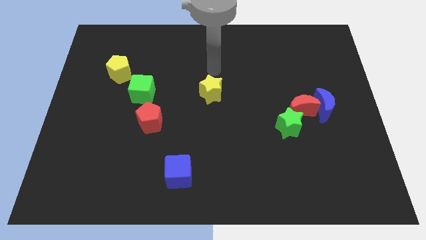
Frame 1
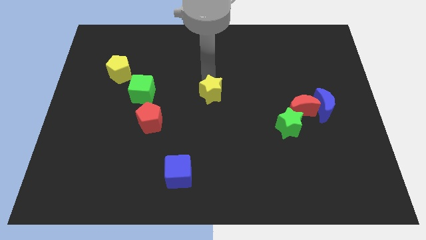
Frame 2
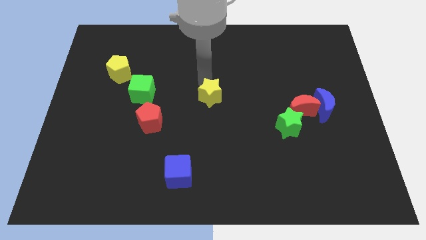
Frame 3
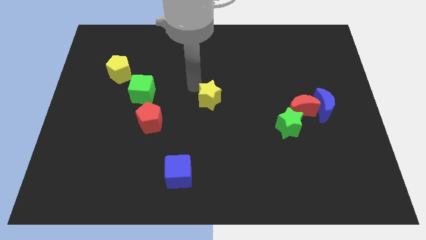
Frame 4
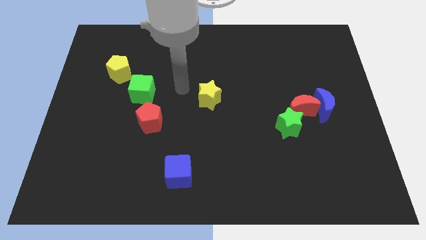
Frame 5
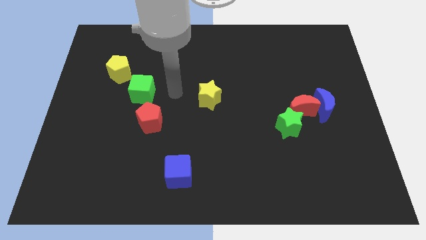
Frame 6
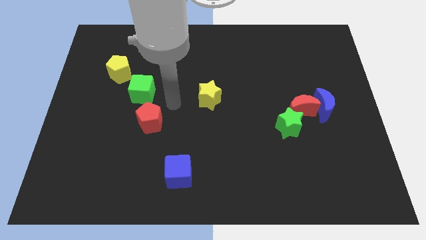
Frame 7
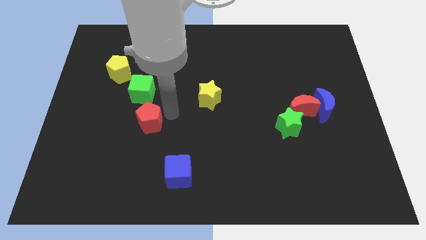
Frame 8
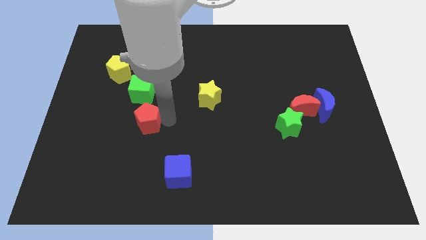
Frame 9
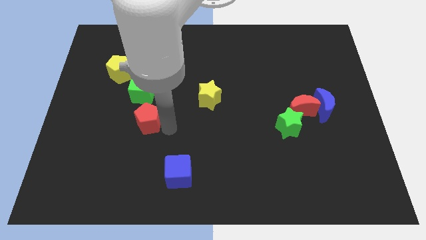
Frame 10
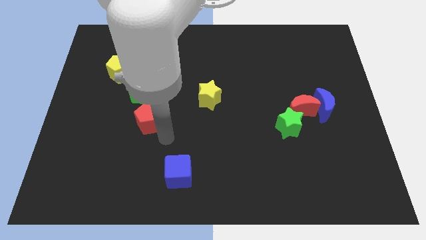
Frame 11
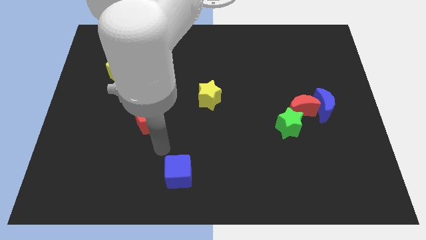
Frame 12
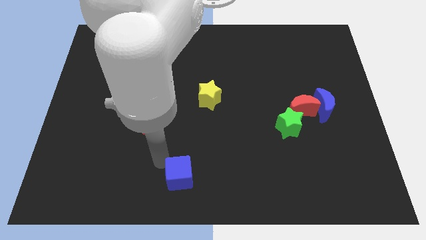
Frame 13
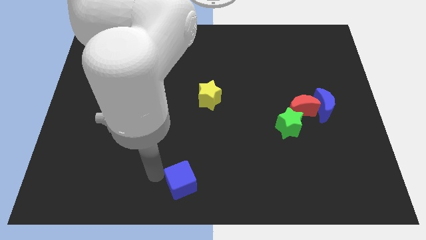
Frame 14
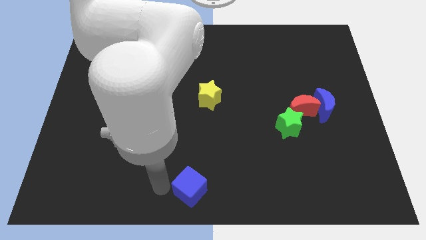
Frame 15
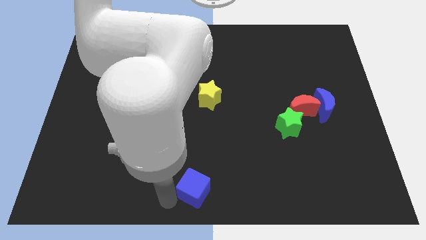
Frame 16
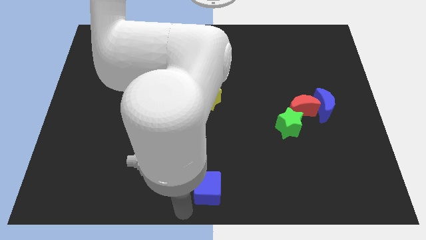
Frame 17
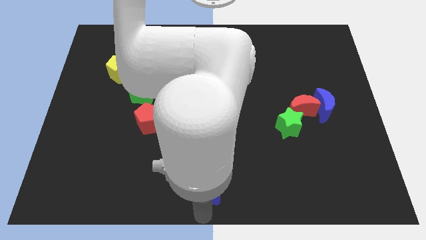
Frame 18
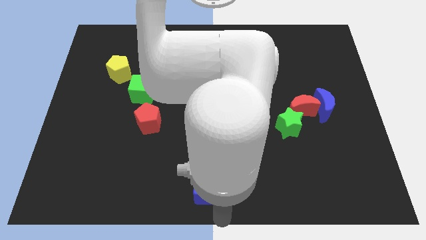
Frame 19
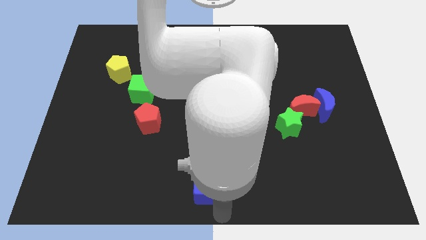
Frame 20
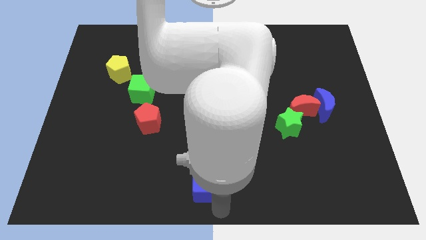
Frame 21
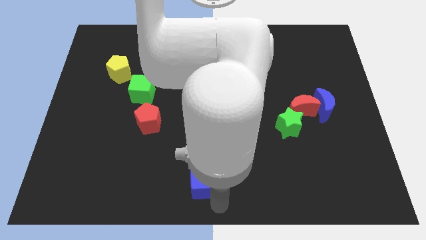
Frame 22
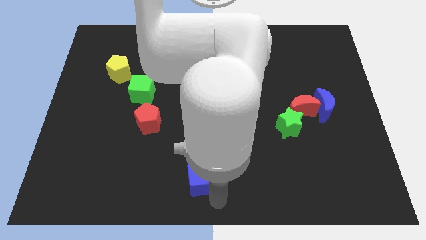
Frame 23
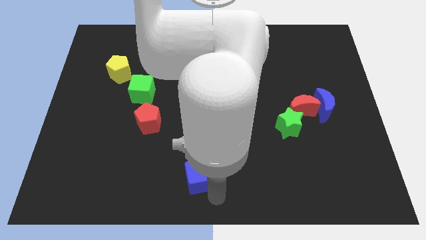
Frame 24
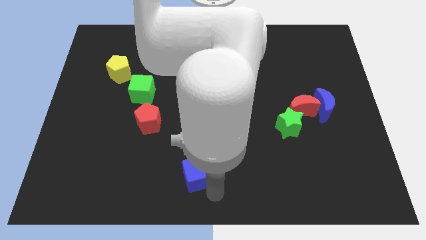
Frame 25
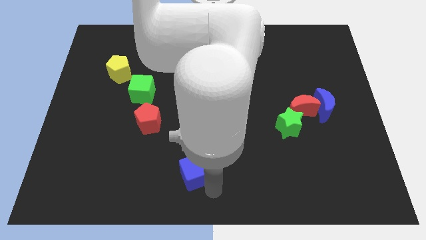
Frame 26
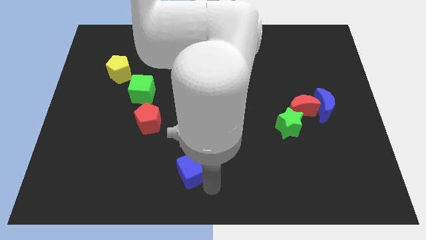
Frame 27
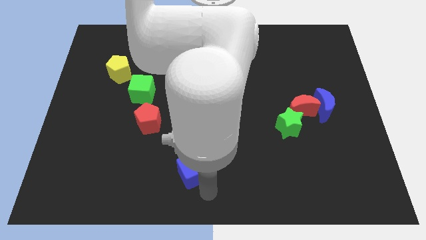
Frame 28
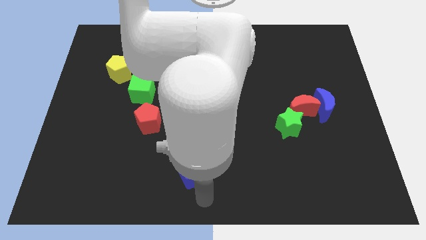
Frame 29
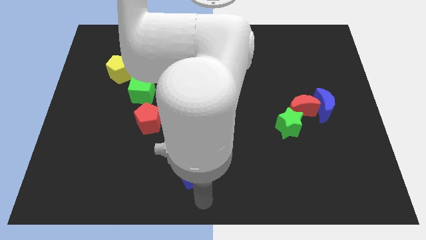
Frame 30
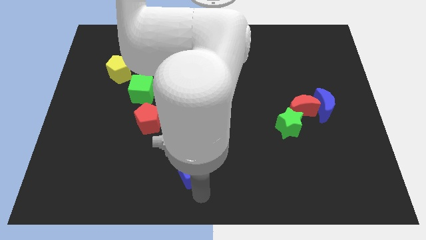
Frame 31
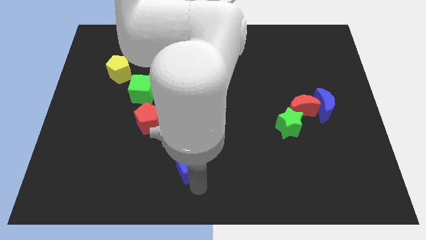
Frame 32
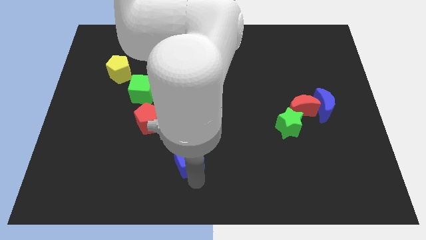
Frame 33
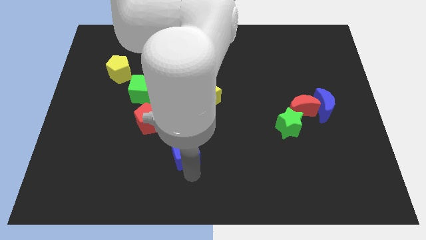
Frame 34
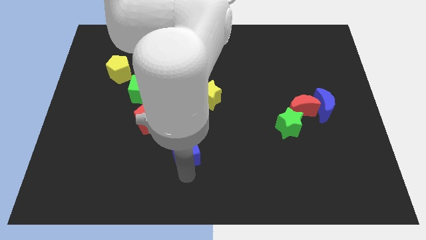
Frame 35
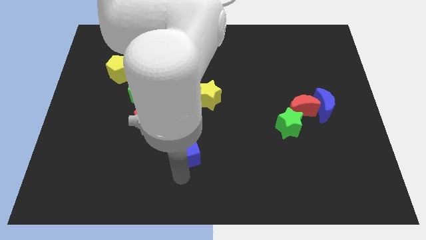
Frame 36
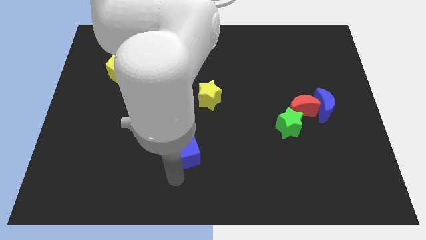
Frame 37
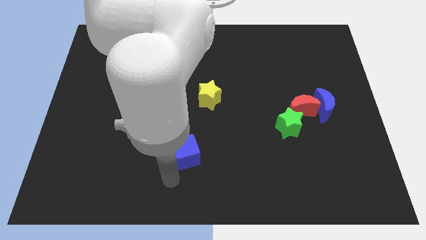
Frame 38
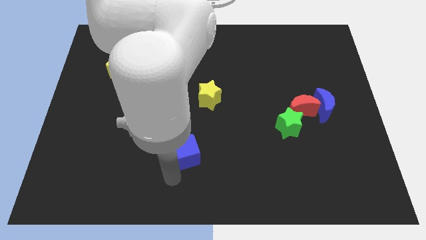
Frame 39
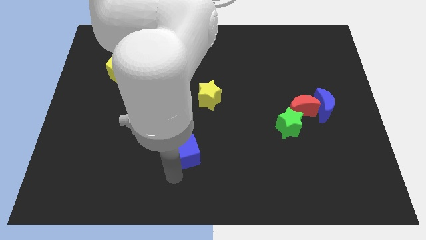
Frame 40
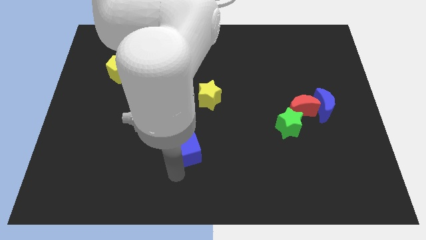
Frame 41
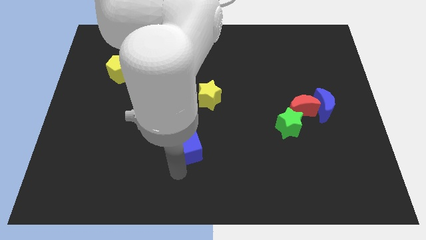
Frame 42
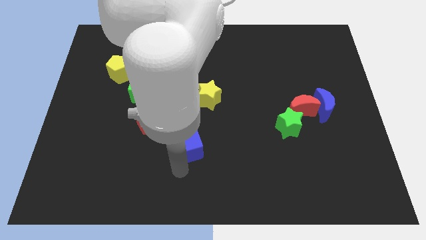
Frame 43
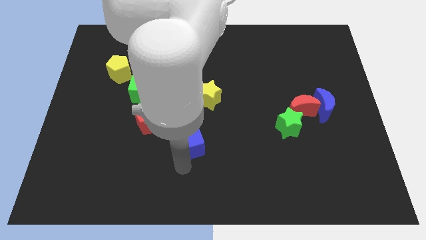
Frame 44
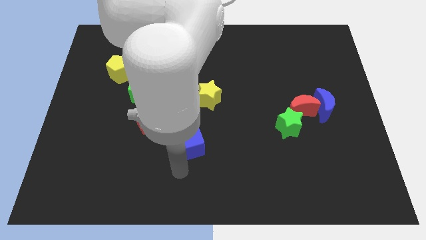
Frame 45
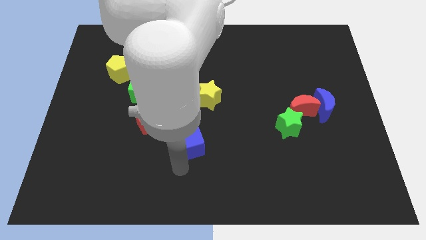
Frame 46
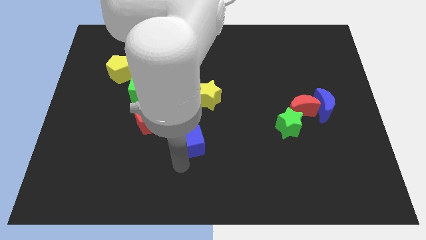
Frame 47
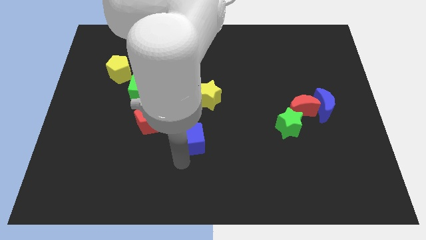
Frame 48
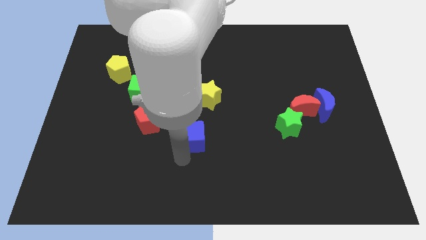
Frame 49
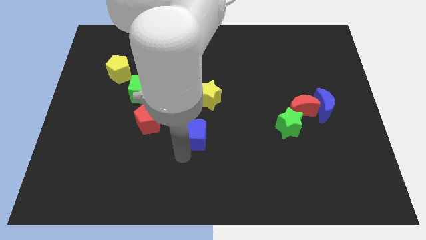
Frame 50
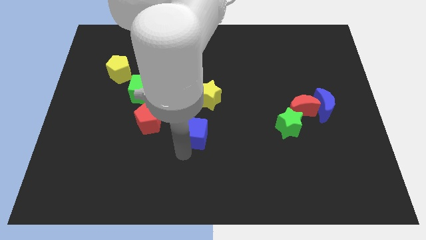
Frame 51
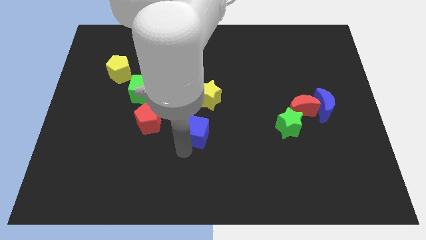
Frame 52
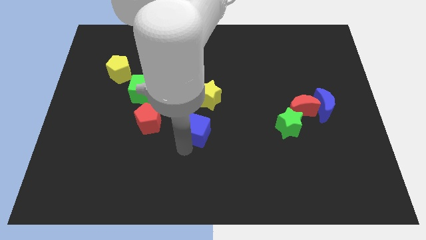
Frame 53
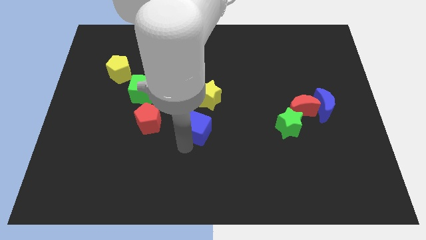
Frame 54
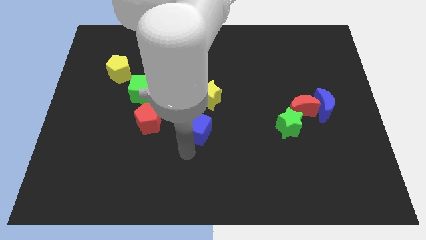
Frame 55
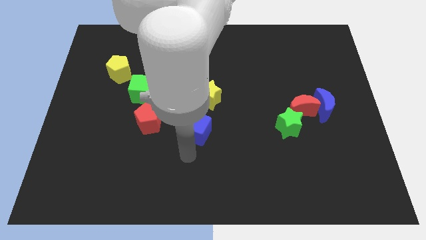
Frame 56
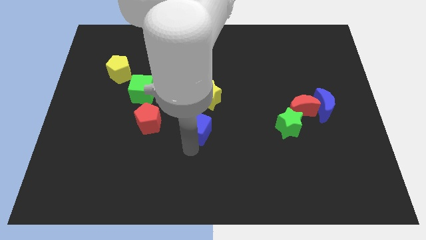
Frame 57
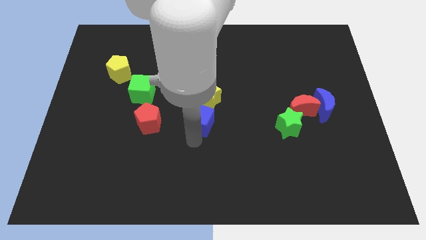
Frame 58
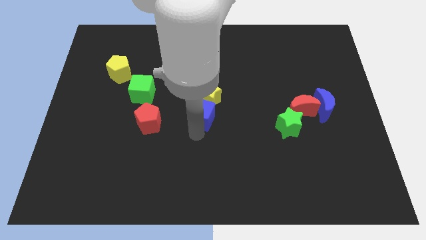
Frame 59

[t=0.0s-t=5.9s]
slide the blue cube close to the yellow star

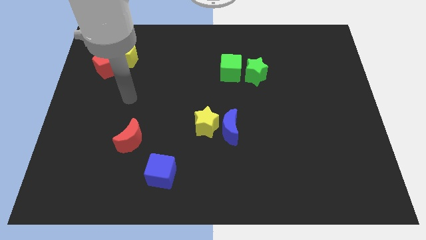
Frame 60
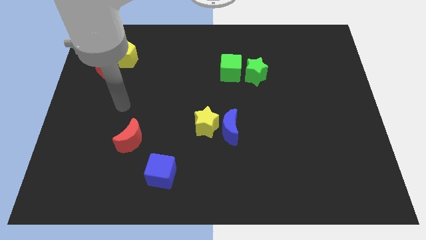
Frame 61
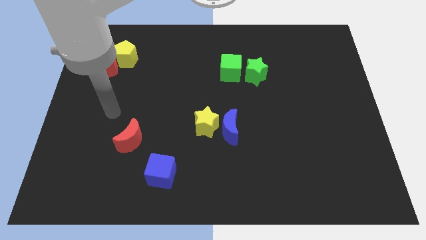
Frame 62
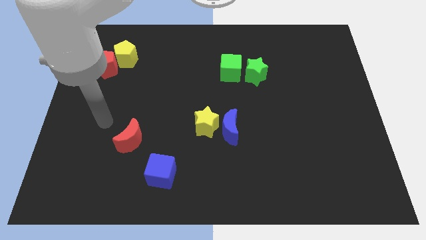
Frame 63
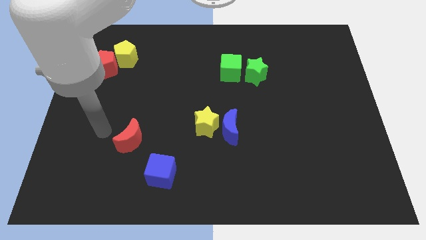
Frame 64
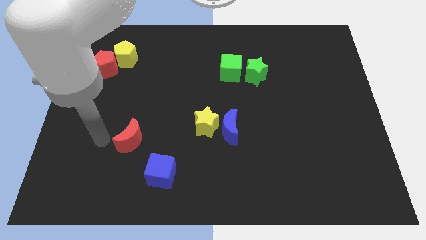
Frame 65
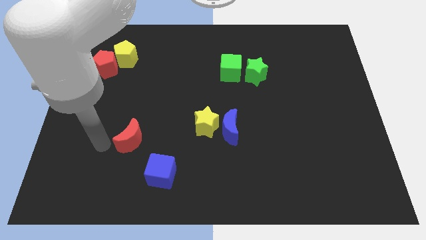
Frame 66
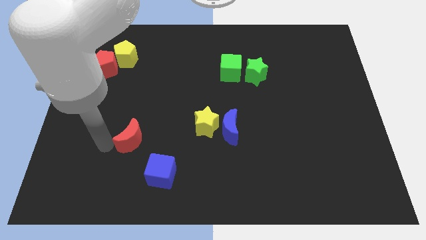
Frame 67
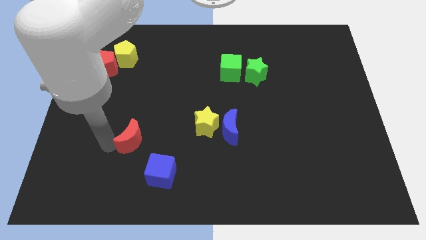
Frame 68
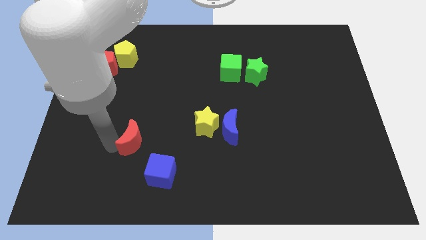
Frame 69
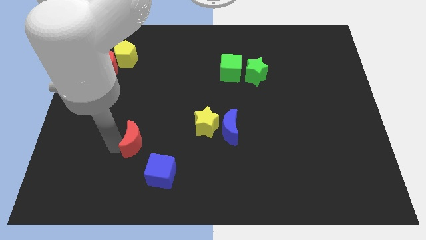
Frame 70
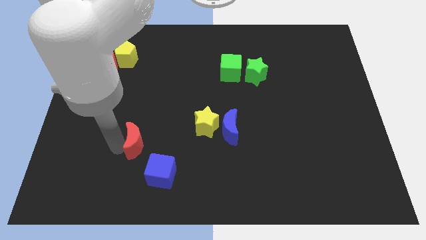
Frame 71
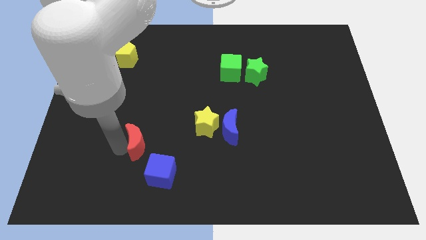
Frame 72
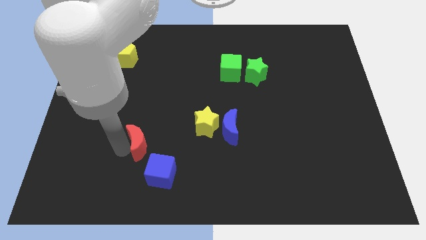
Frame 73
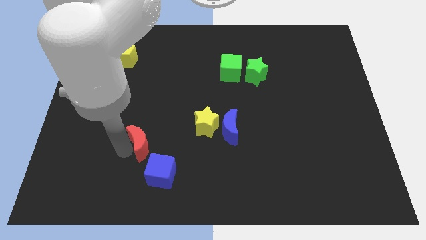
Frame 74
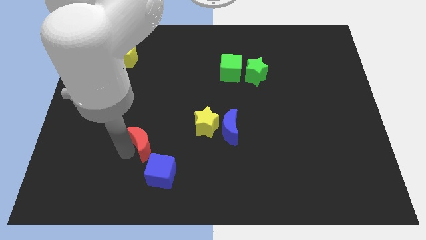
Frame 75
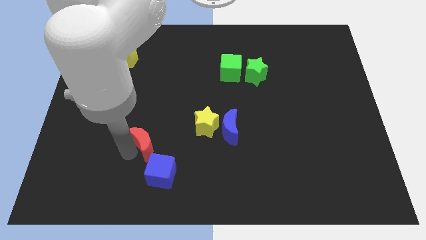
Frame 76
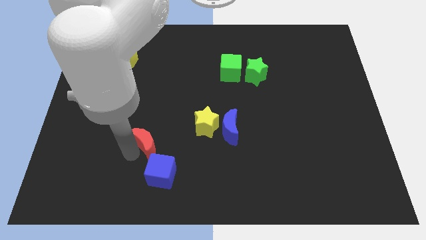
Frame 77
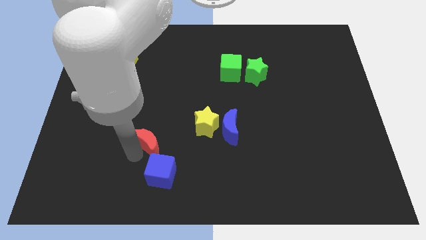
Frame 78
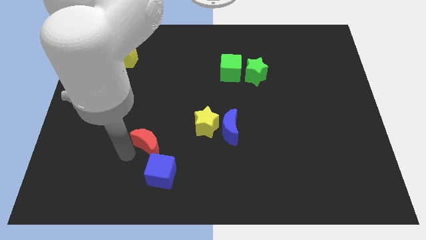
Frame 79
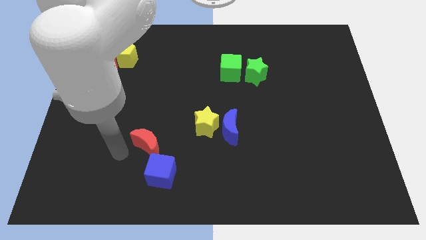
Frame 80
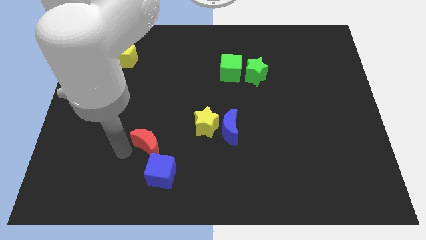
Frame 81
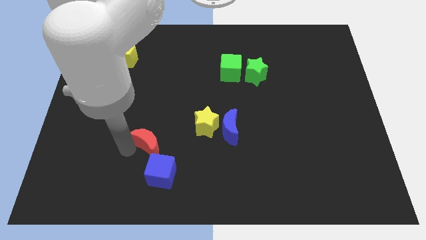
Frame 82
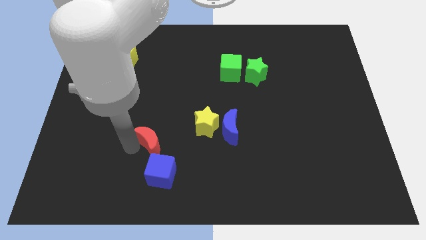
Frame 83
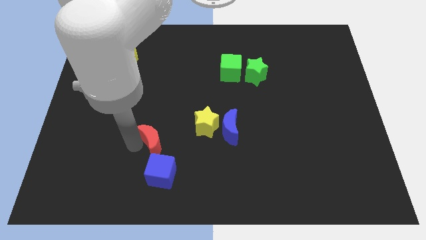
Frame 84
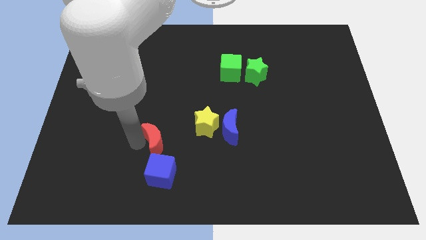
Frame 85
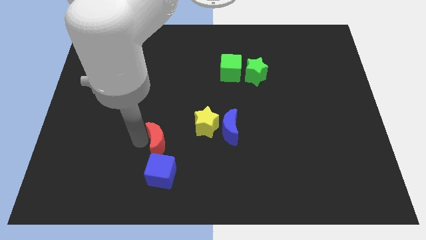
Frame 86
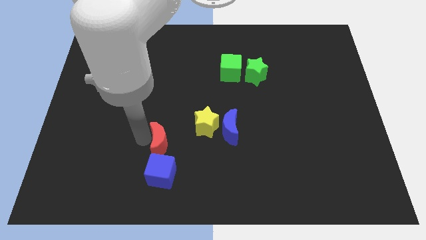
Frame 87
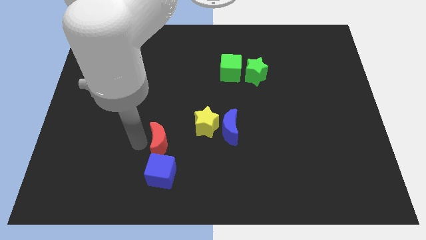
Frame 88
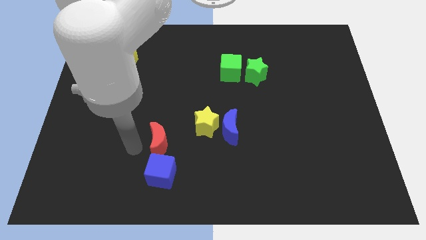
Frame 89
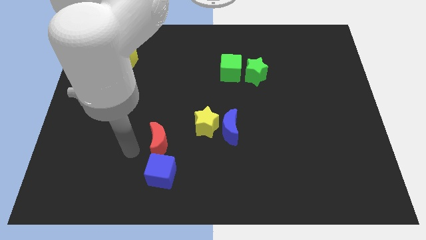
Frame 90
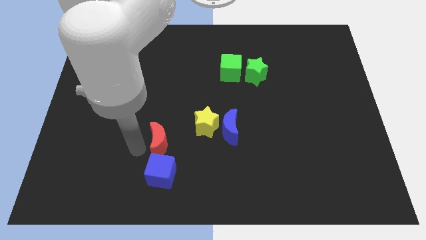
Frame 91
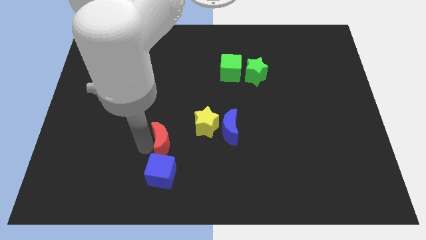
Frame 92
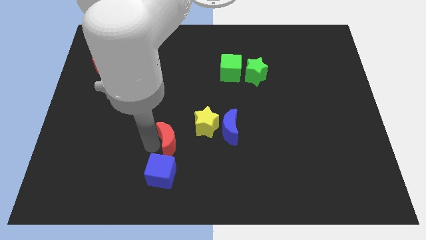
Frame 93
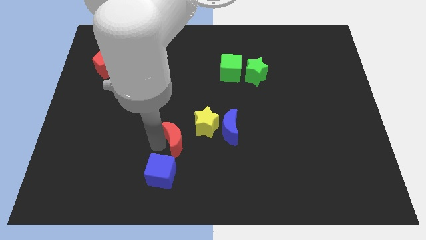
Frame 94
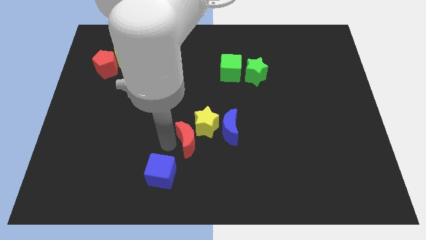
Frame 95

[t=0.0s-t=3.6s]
put the red moon close to the yellow star
